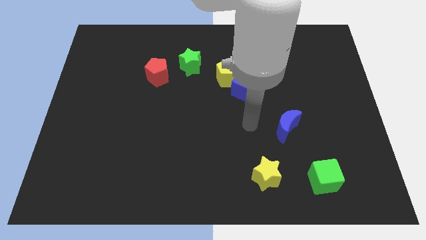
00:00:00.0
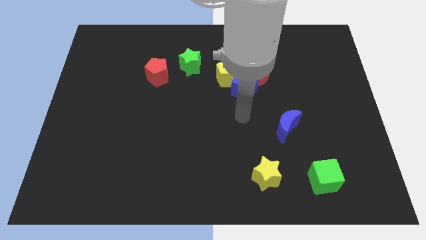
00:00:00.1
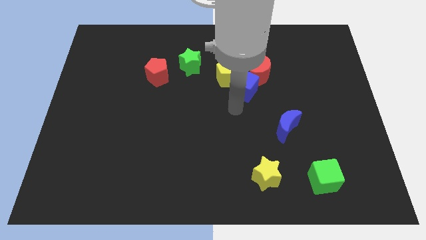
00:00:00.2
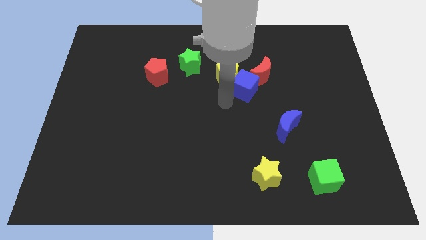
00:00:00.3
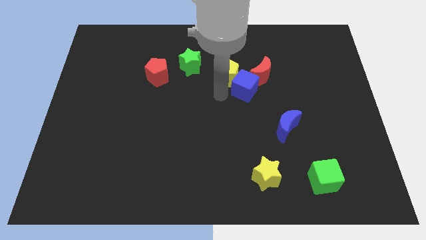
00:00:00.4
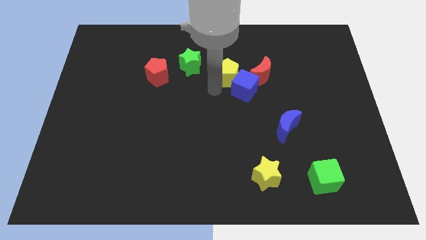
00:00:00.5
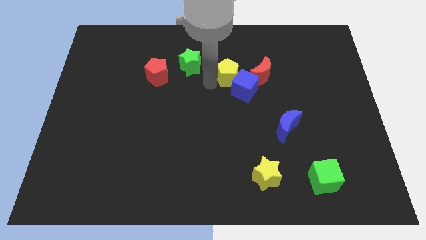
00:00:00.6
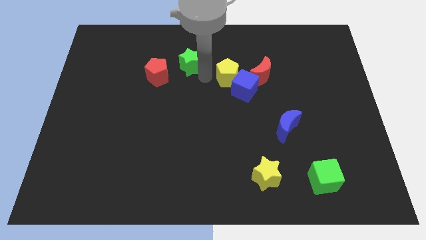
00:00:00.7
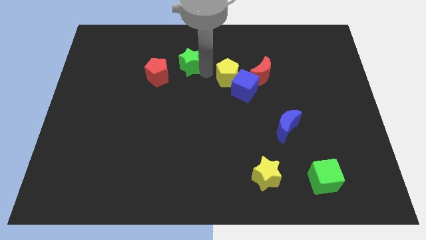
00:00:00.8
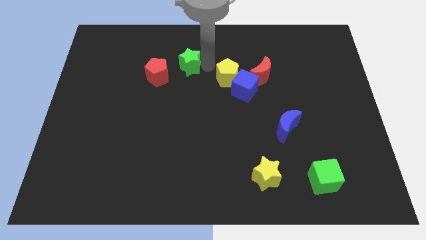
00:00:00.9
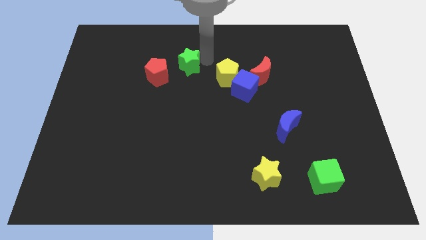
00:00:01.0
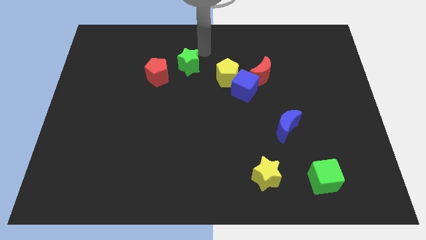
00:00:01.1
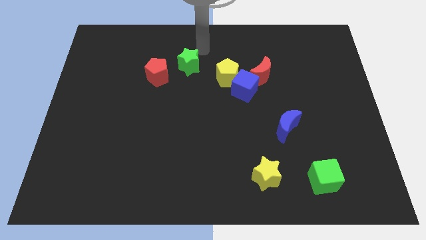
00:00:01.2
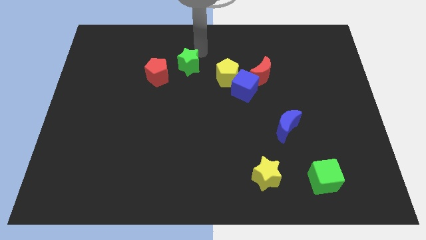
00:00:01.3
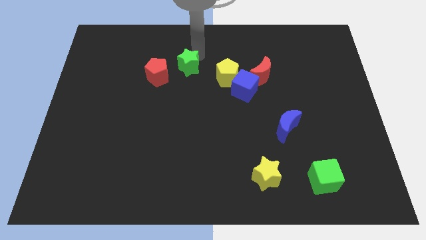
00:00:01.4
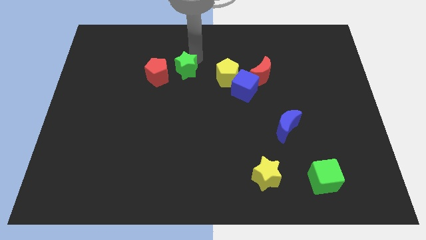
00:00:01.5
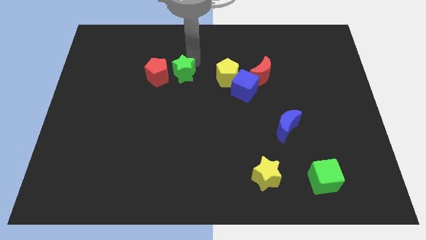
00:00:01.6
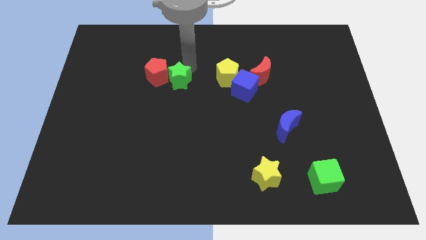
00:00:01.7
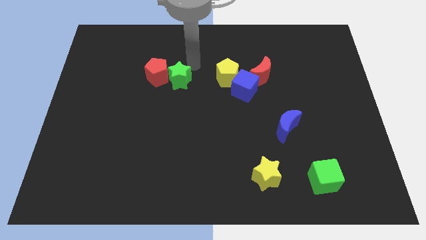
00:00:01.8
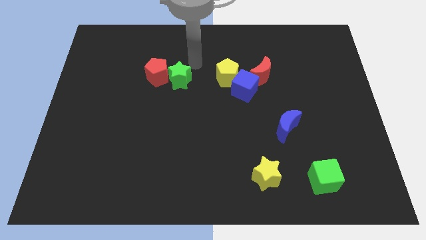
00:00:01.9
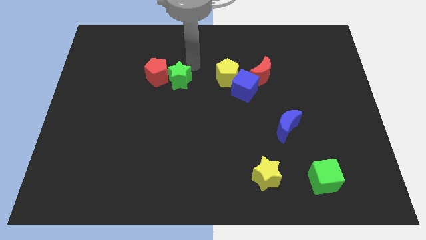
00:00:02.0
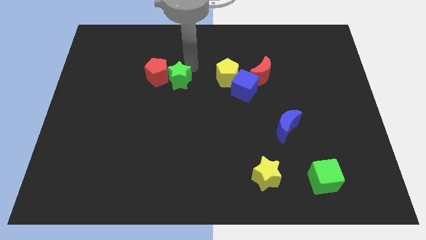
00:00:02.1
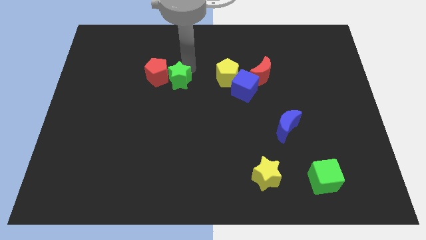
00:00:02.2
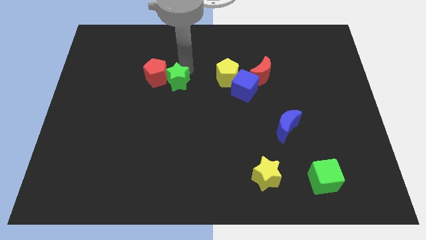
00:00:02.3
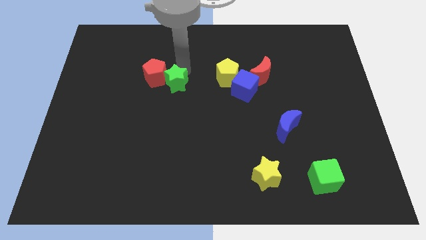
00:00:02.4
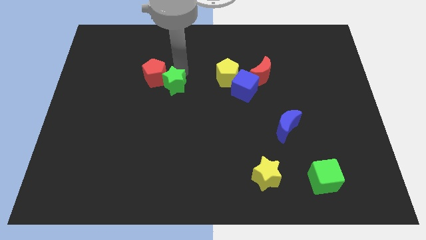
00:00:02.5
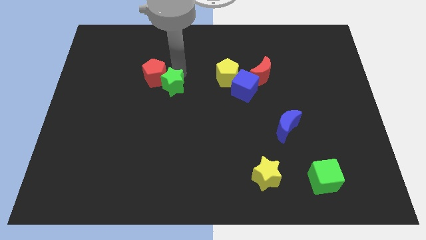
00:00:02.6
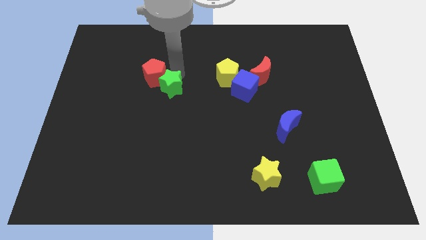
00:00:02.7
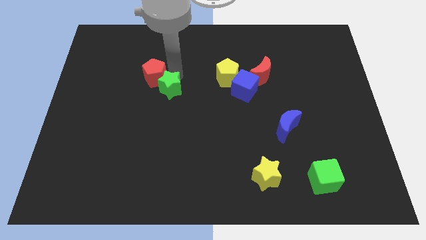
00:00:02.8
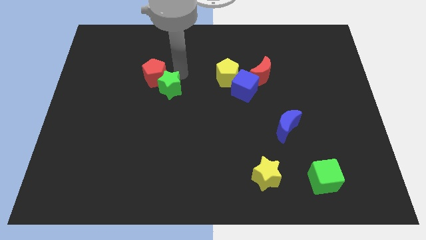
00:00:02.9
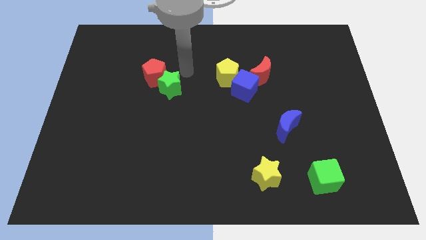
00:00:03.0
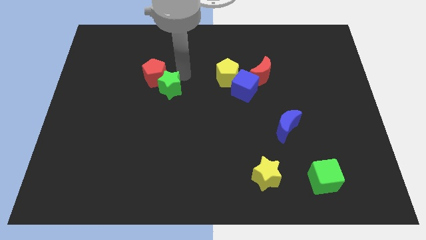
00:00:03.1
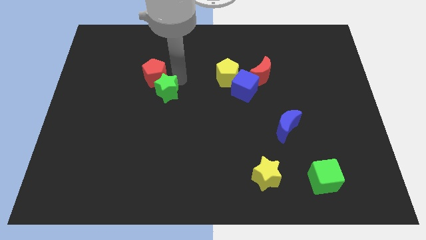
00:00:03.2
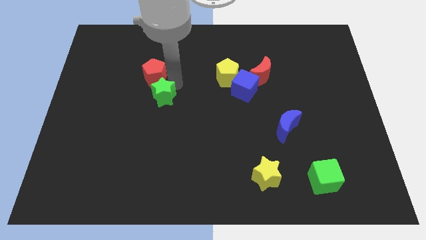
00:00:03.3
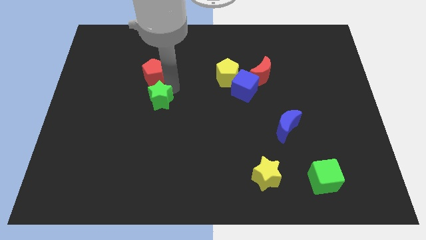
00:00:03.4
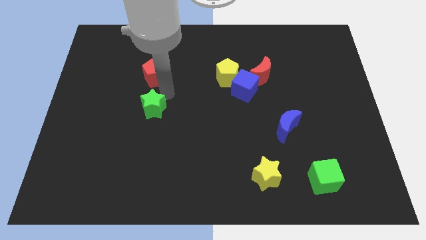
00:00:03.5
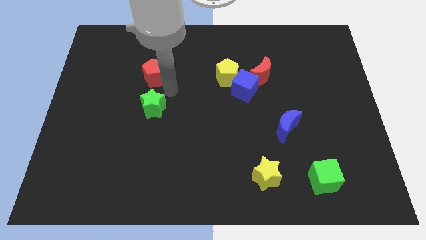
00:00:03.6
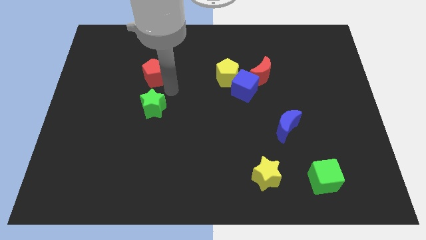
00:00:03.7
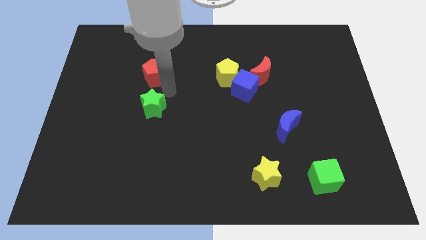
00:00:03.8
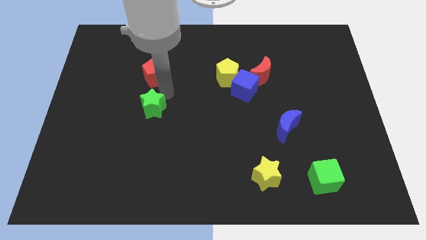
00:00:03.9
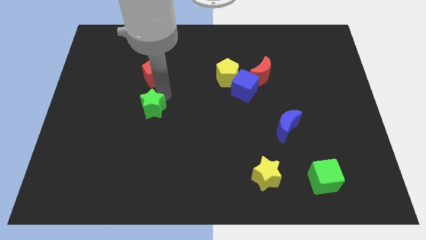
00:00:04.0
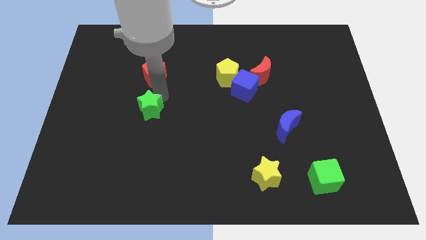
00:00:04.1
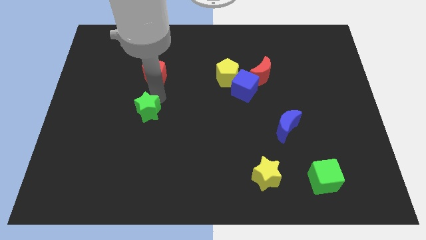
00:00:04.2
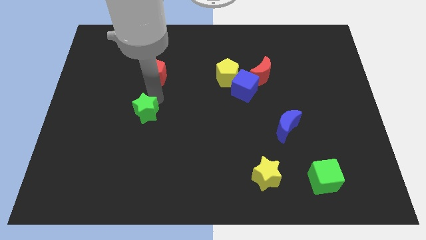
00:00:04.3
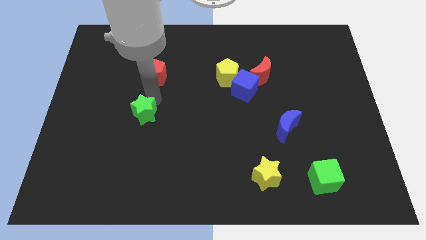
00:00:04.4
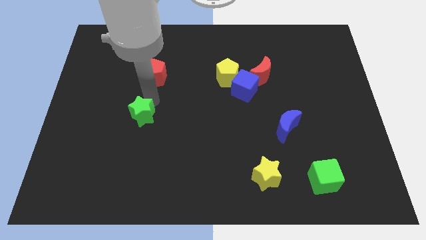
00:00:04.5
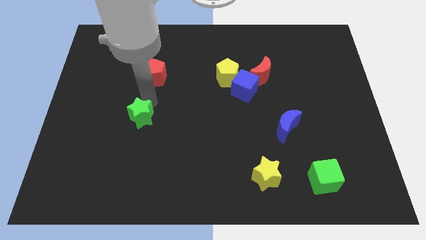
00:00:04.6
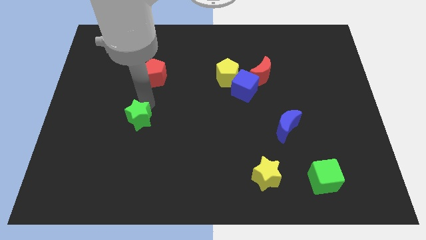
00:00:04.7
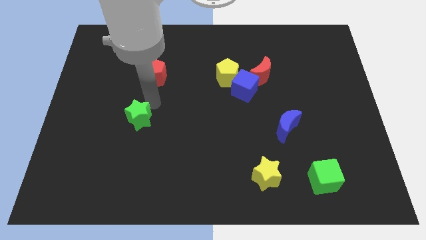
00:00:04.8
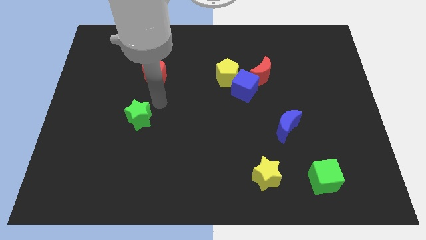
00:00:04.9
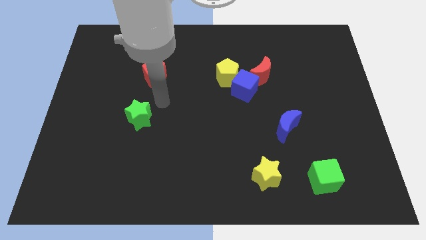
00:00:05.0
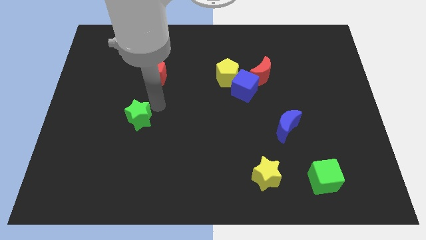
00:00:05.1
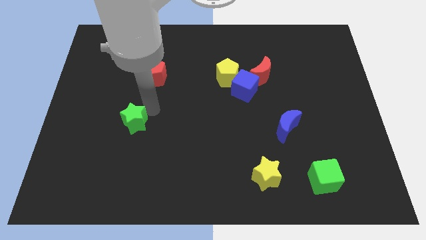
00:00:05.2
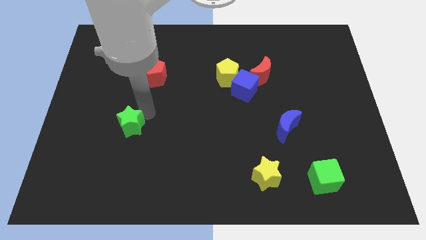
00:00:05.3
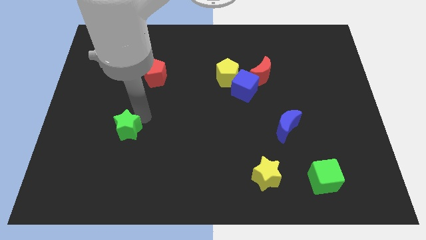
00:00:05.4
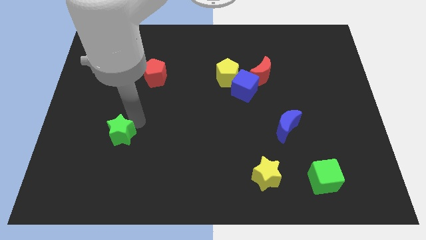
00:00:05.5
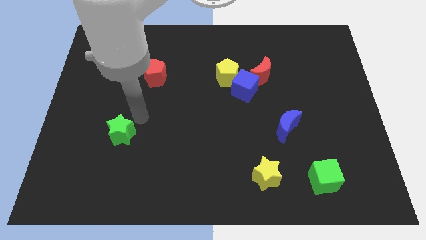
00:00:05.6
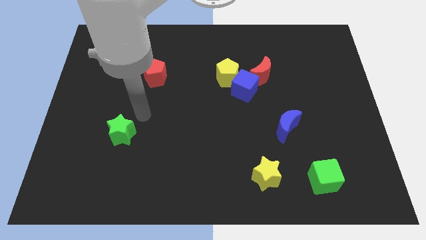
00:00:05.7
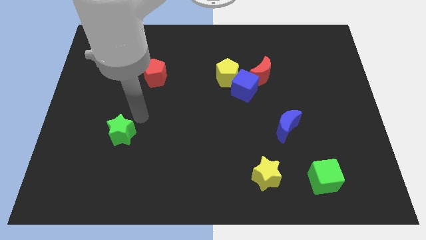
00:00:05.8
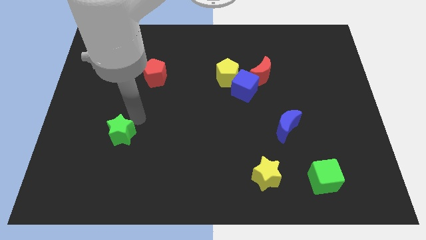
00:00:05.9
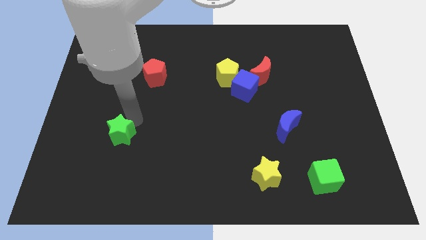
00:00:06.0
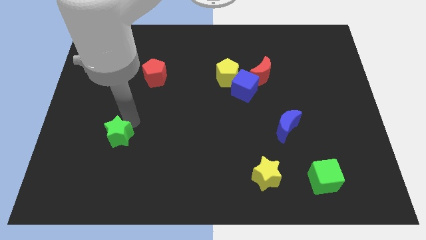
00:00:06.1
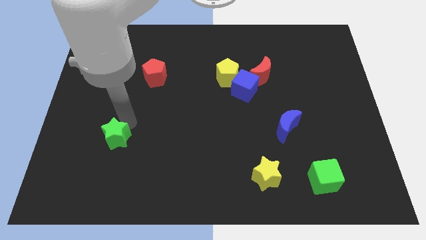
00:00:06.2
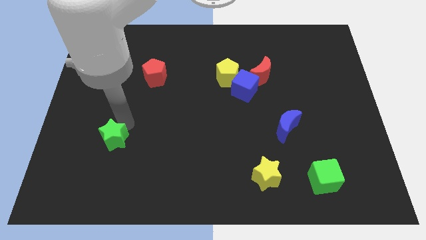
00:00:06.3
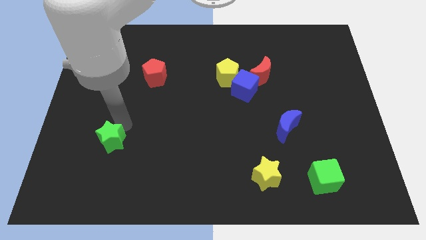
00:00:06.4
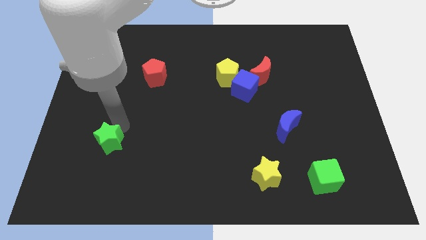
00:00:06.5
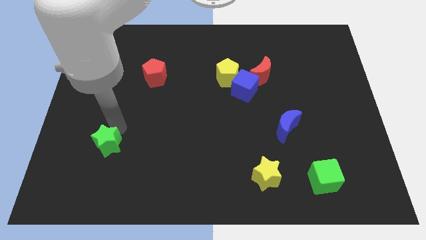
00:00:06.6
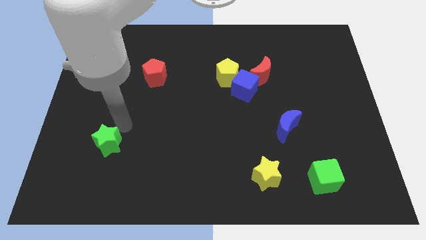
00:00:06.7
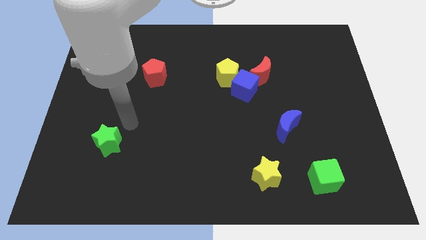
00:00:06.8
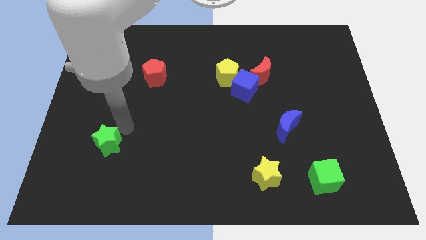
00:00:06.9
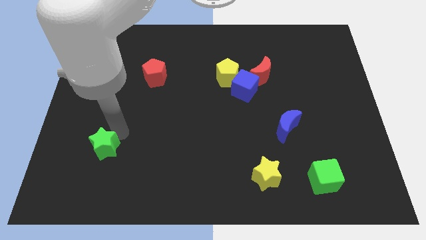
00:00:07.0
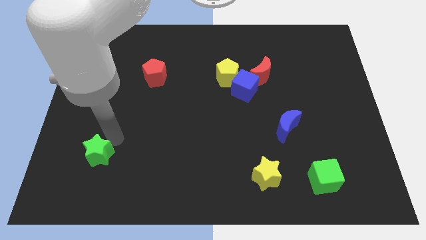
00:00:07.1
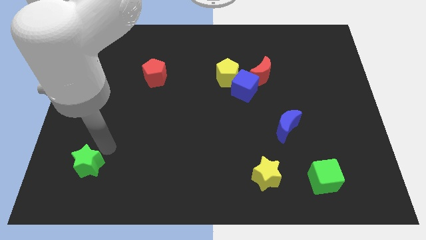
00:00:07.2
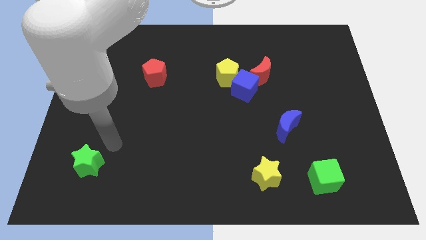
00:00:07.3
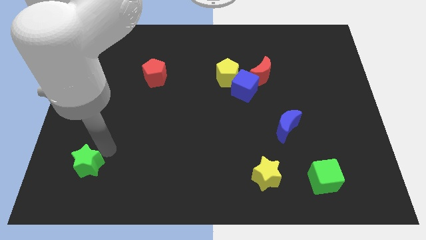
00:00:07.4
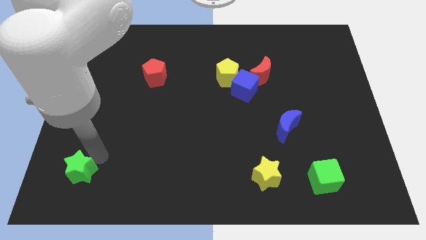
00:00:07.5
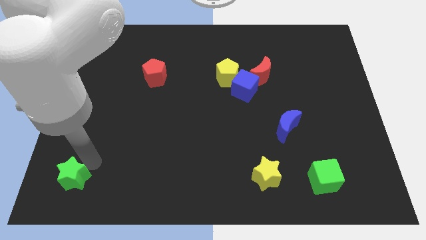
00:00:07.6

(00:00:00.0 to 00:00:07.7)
move the green star to the bottom left corner
